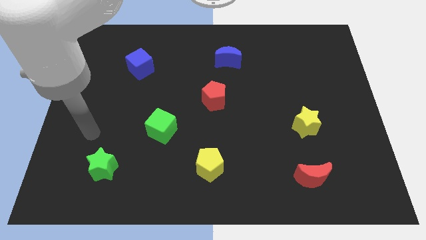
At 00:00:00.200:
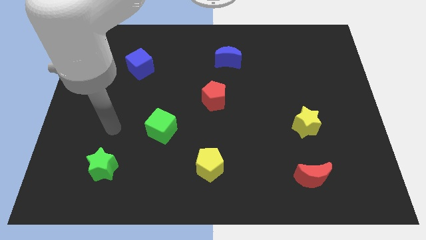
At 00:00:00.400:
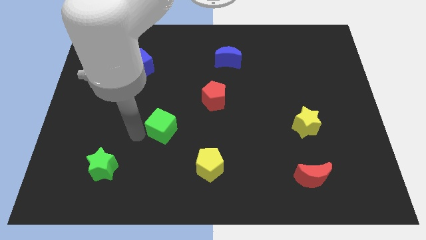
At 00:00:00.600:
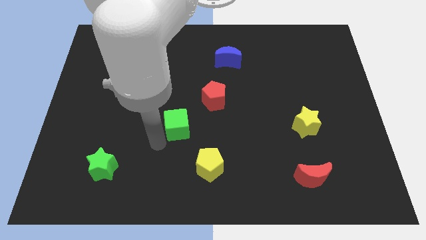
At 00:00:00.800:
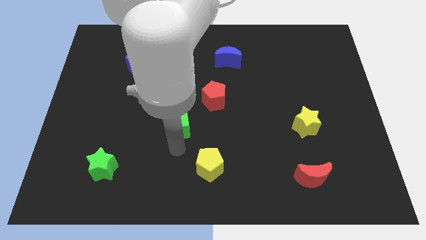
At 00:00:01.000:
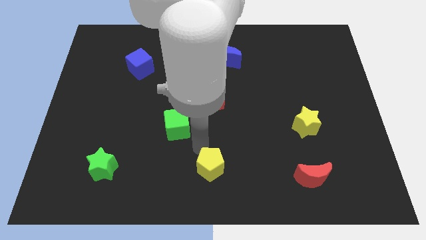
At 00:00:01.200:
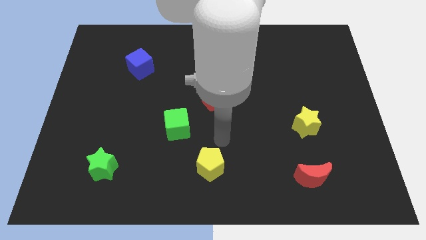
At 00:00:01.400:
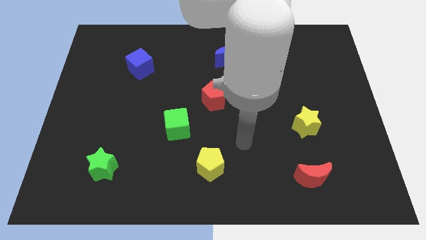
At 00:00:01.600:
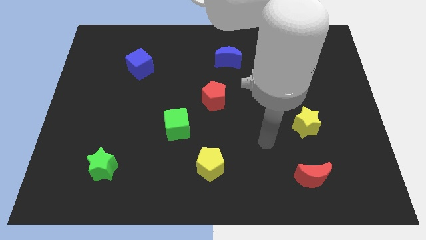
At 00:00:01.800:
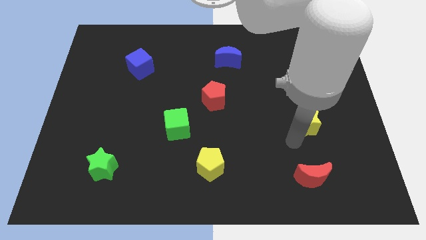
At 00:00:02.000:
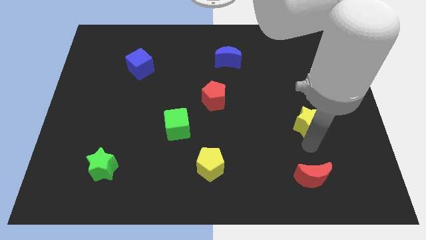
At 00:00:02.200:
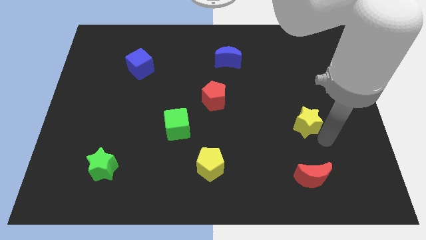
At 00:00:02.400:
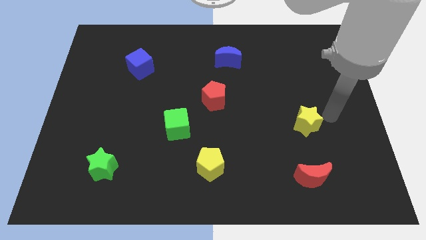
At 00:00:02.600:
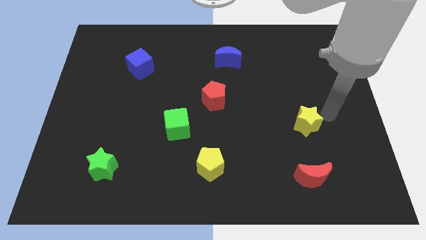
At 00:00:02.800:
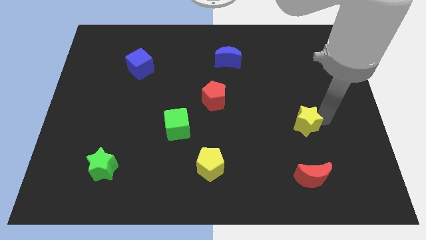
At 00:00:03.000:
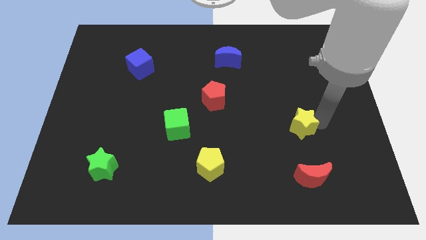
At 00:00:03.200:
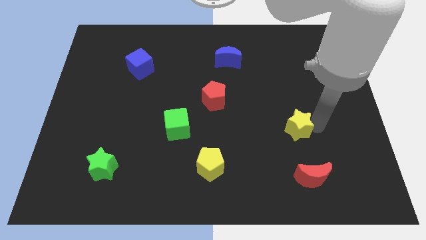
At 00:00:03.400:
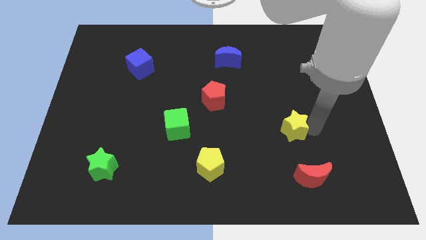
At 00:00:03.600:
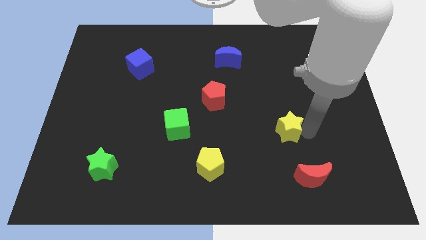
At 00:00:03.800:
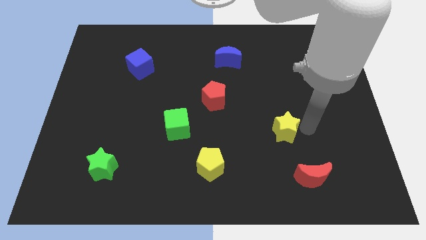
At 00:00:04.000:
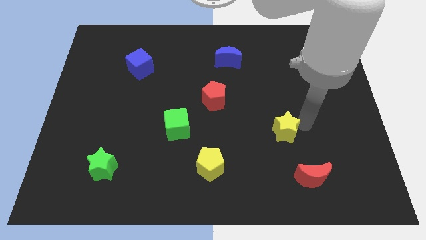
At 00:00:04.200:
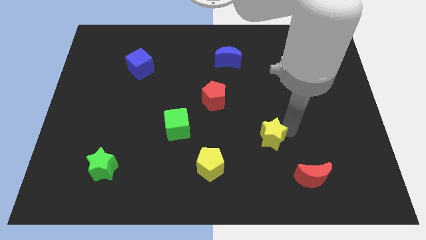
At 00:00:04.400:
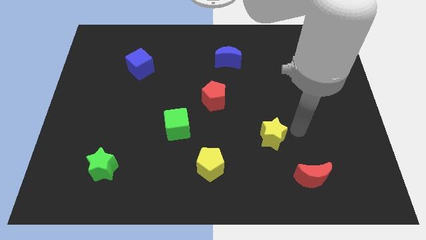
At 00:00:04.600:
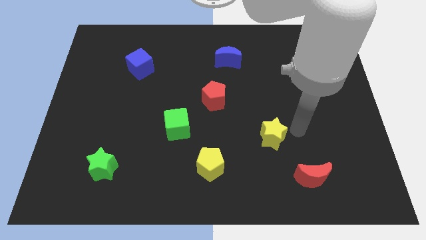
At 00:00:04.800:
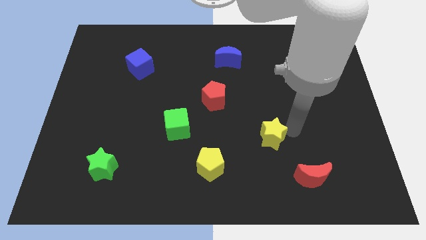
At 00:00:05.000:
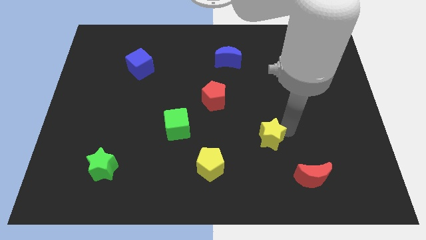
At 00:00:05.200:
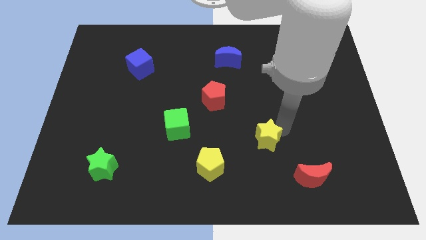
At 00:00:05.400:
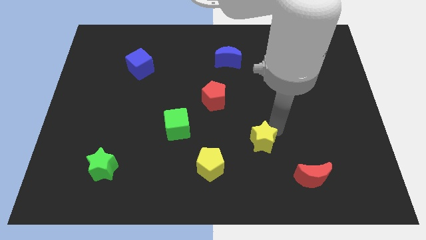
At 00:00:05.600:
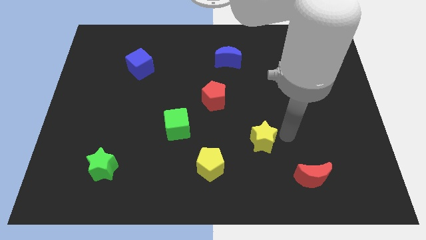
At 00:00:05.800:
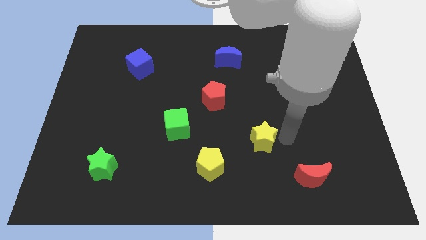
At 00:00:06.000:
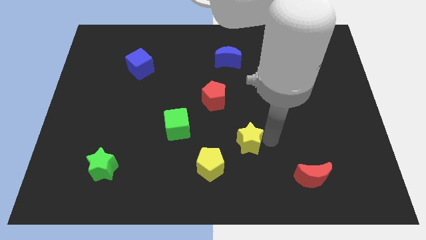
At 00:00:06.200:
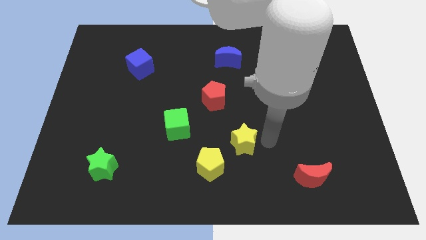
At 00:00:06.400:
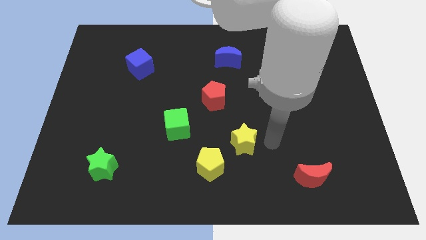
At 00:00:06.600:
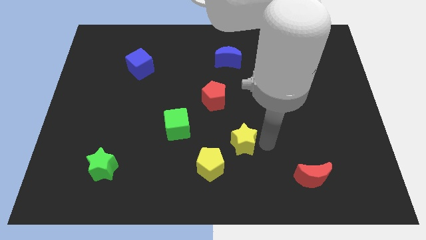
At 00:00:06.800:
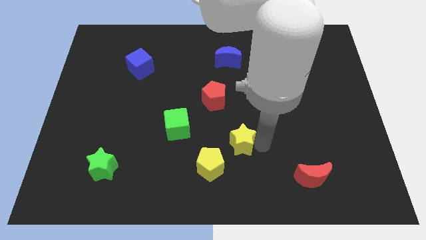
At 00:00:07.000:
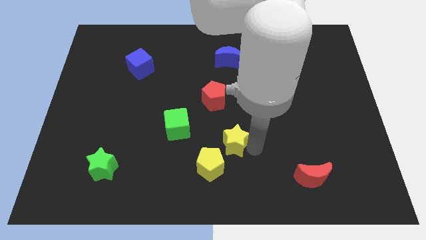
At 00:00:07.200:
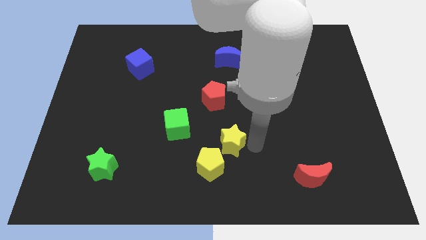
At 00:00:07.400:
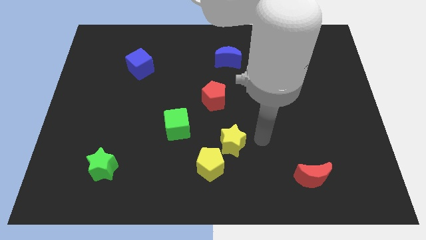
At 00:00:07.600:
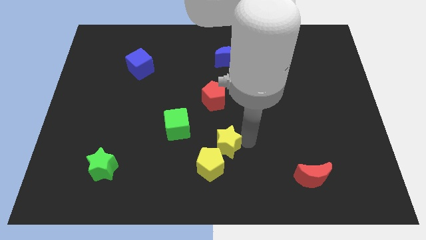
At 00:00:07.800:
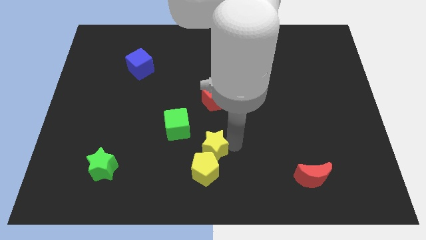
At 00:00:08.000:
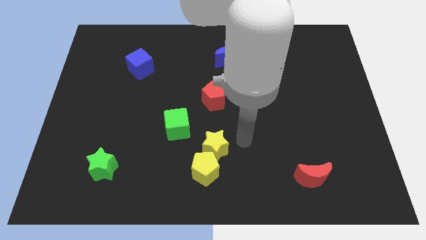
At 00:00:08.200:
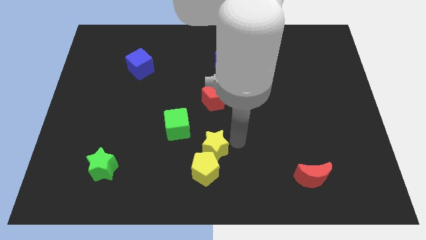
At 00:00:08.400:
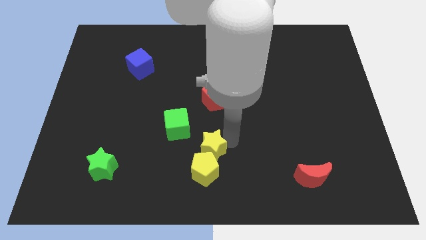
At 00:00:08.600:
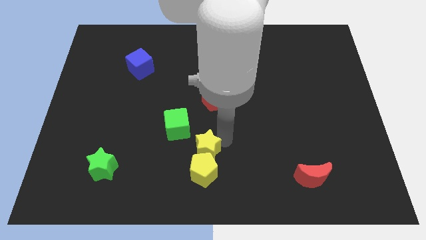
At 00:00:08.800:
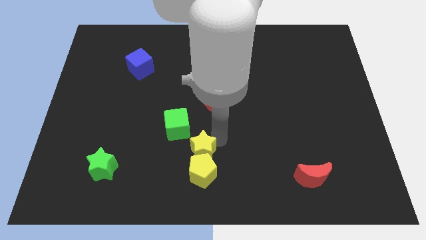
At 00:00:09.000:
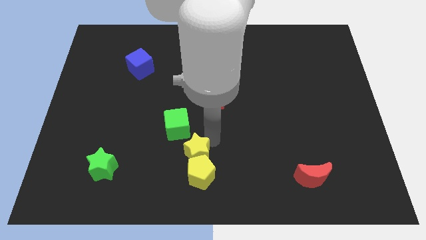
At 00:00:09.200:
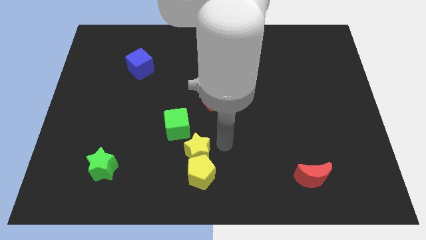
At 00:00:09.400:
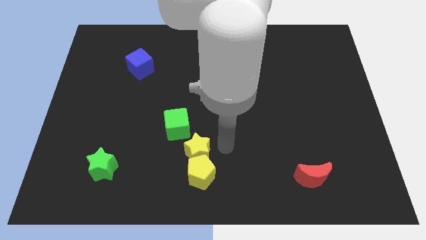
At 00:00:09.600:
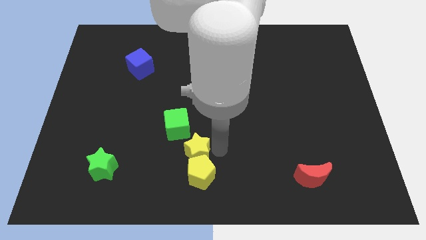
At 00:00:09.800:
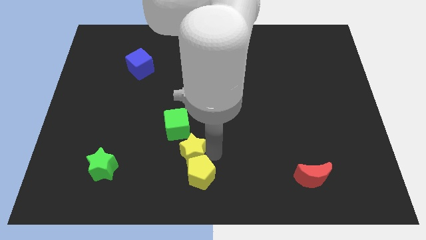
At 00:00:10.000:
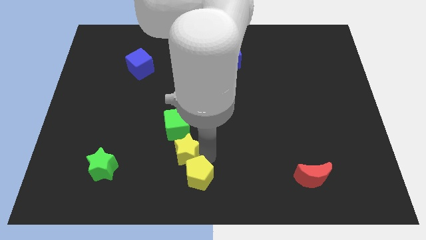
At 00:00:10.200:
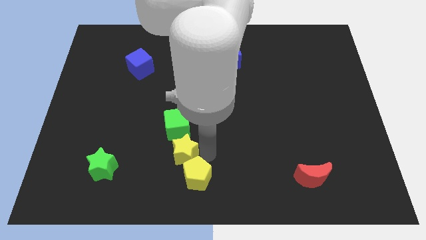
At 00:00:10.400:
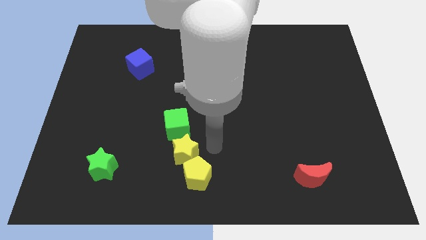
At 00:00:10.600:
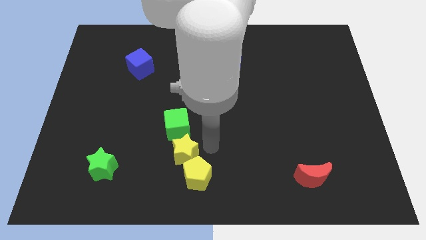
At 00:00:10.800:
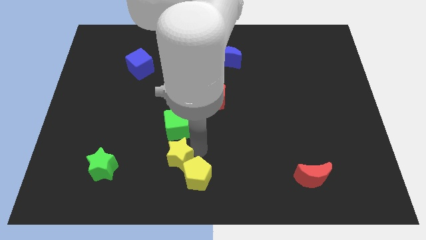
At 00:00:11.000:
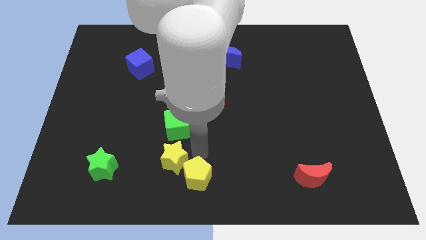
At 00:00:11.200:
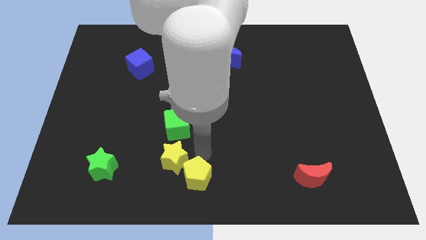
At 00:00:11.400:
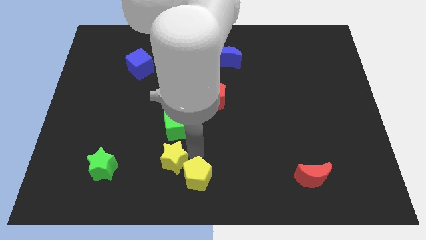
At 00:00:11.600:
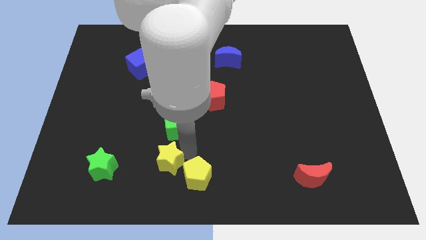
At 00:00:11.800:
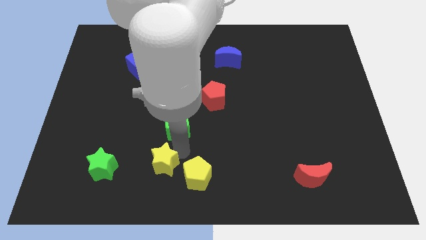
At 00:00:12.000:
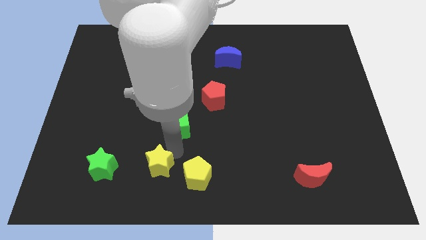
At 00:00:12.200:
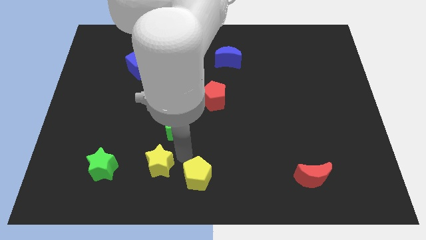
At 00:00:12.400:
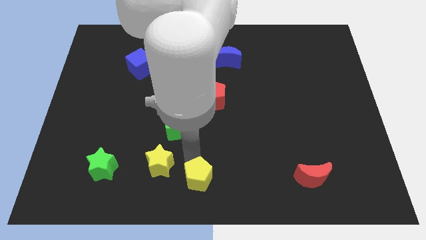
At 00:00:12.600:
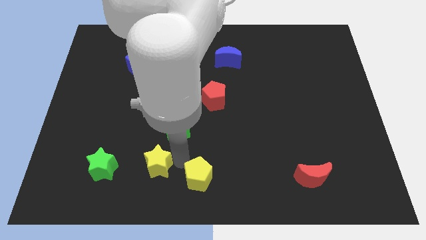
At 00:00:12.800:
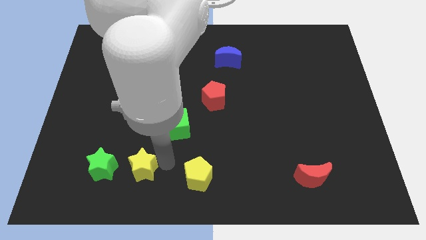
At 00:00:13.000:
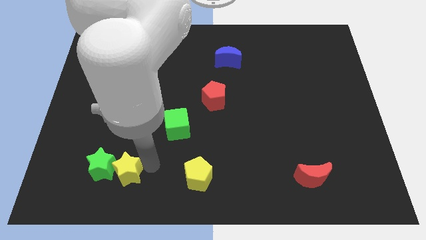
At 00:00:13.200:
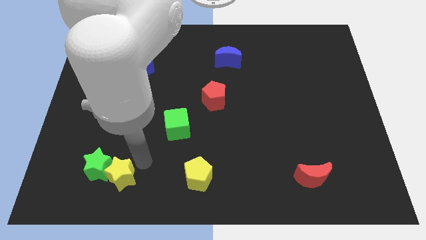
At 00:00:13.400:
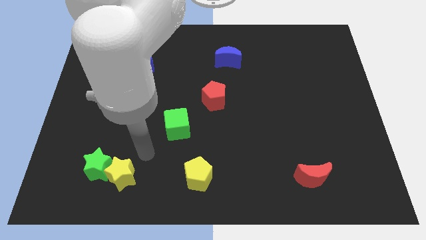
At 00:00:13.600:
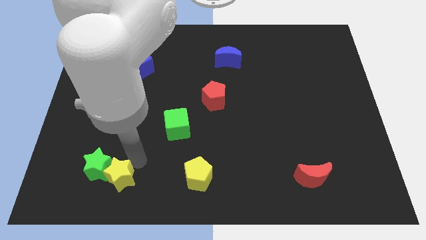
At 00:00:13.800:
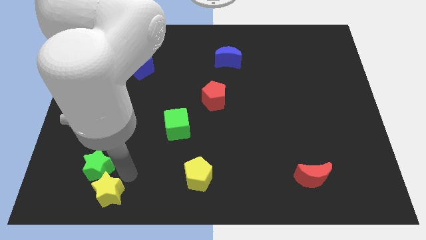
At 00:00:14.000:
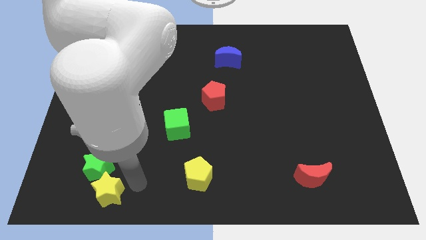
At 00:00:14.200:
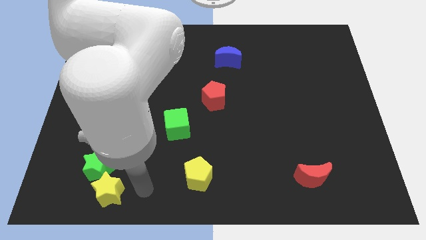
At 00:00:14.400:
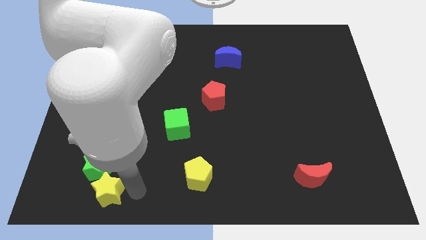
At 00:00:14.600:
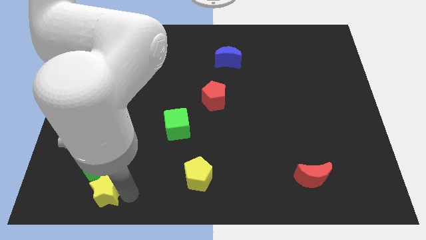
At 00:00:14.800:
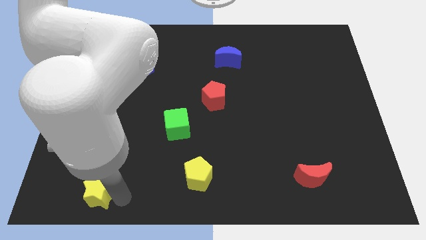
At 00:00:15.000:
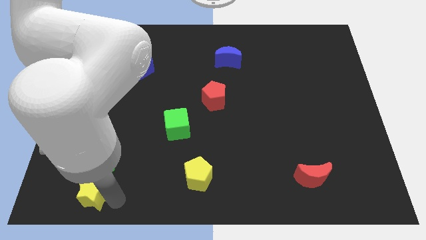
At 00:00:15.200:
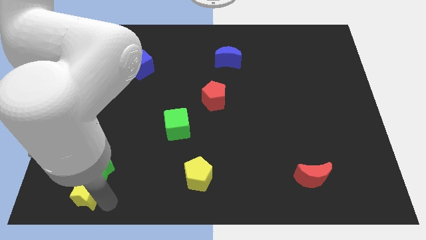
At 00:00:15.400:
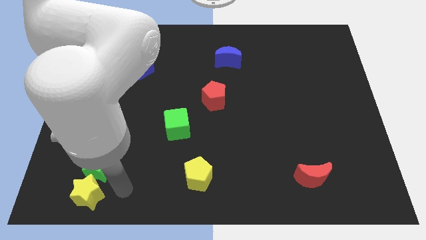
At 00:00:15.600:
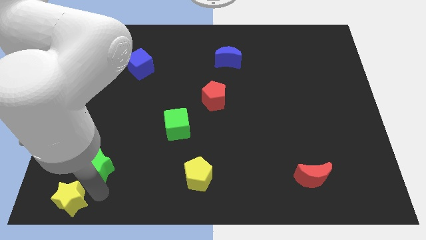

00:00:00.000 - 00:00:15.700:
put the yellow star to the bottom left corner
